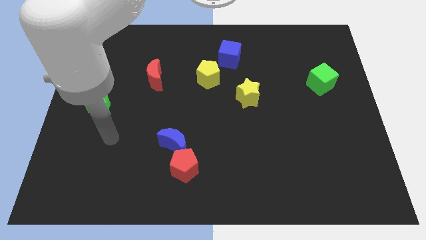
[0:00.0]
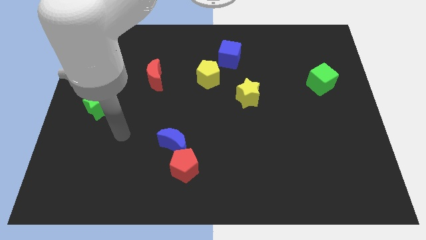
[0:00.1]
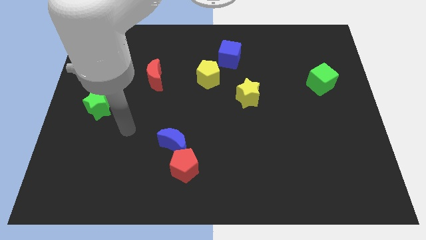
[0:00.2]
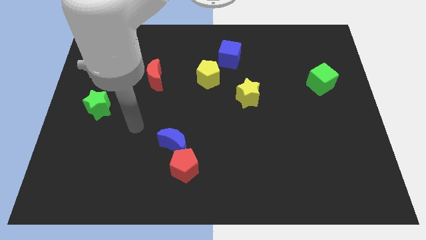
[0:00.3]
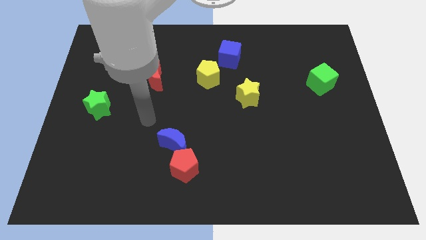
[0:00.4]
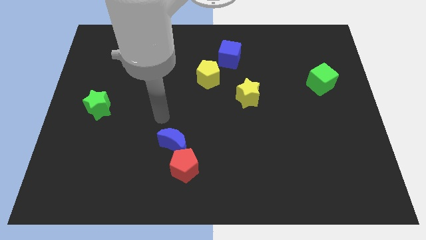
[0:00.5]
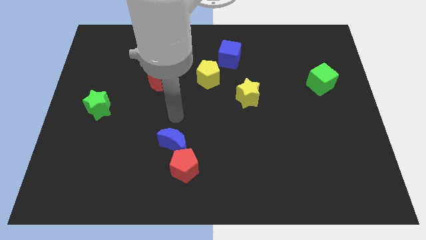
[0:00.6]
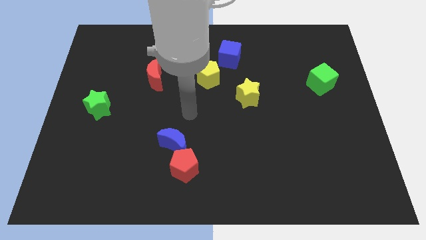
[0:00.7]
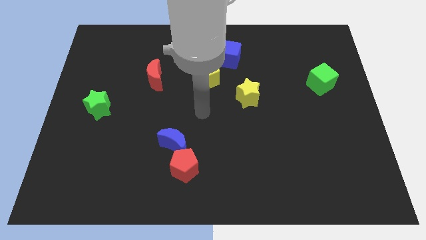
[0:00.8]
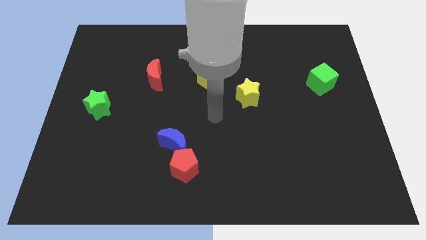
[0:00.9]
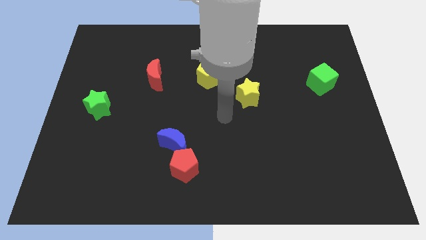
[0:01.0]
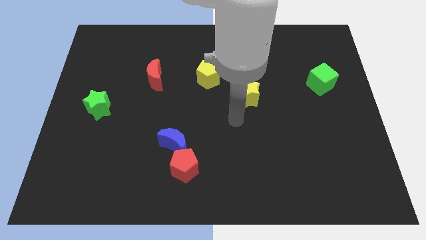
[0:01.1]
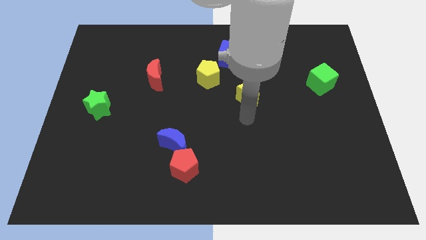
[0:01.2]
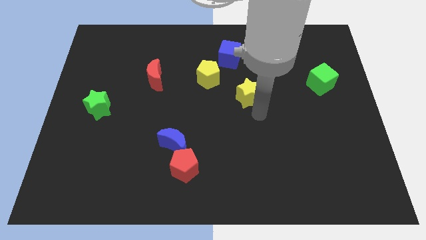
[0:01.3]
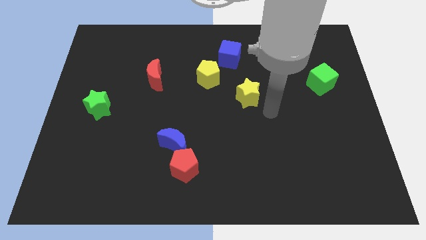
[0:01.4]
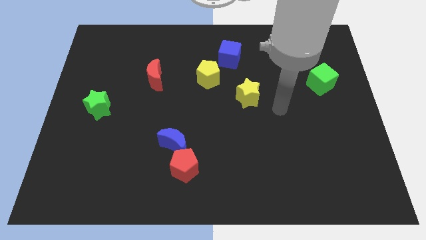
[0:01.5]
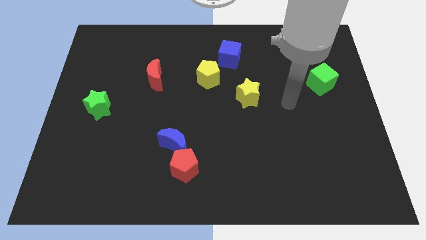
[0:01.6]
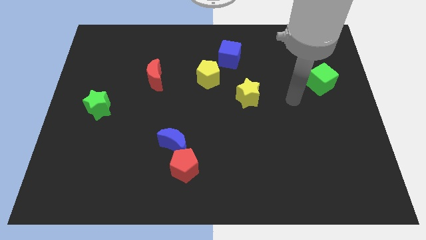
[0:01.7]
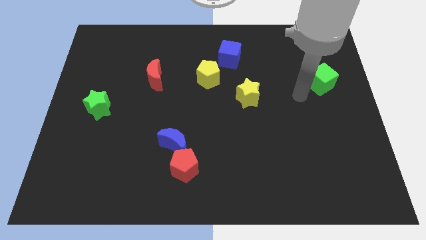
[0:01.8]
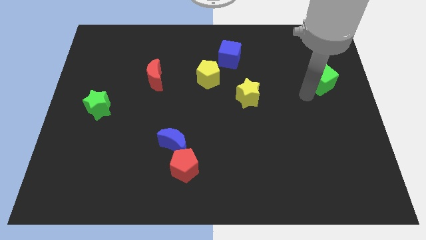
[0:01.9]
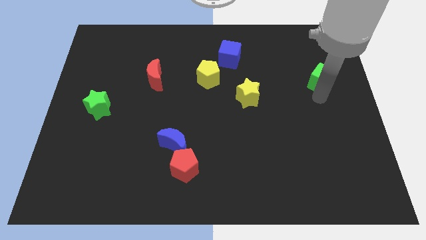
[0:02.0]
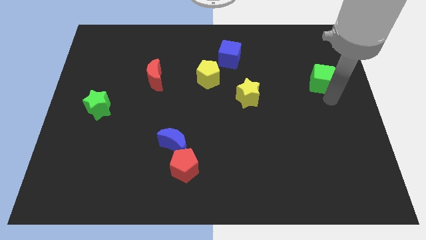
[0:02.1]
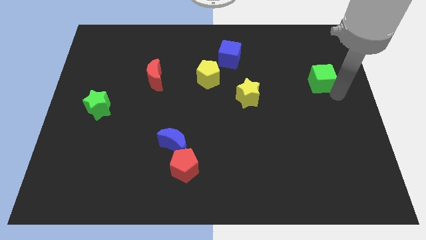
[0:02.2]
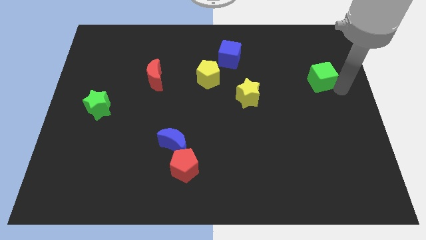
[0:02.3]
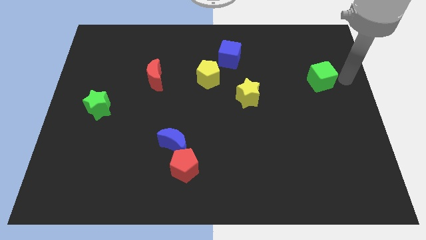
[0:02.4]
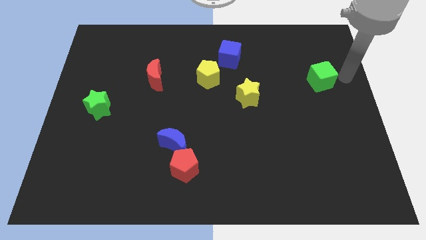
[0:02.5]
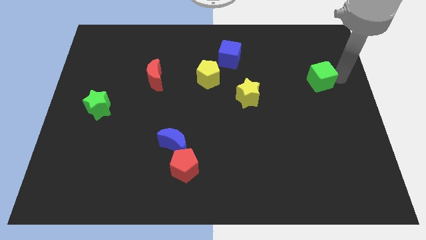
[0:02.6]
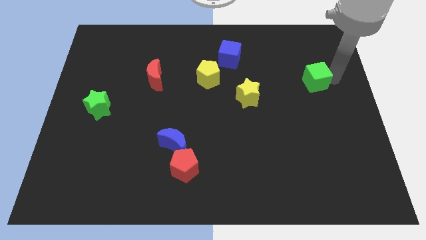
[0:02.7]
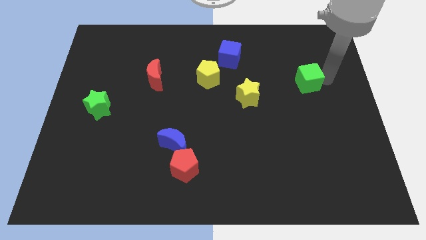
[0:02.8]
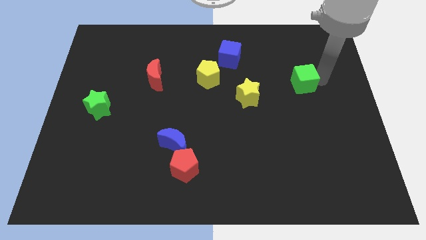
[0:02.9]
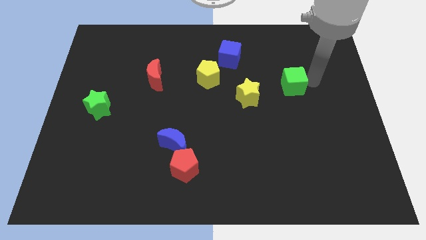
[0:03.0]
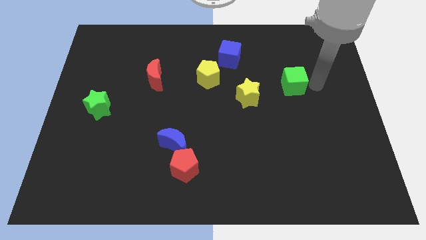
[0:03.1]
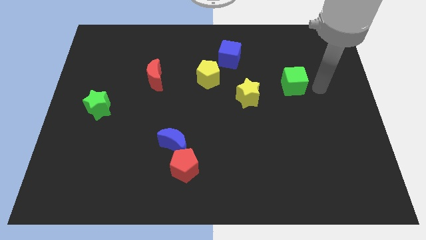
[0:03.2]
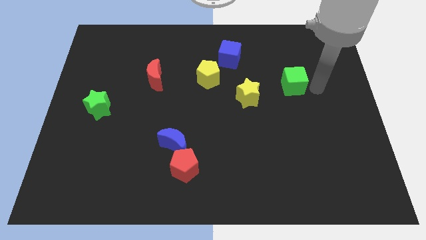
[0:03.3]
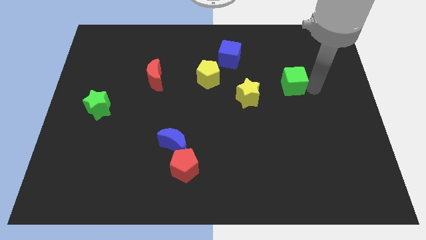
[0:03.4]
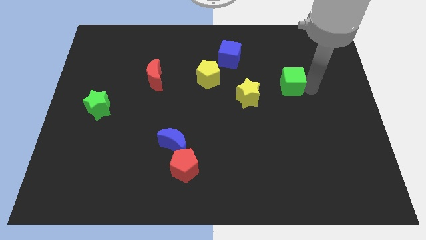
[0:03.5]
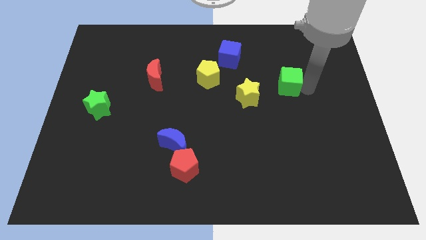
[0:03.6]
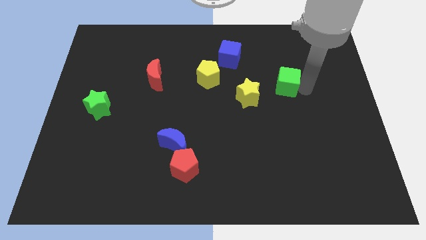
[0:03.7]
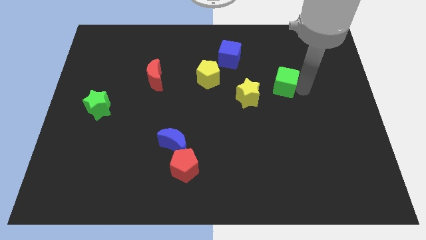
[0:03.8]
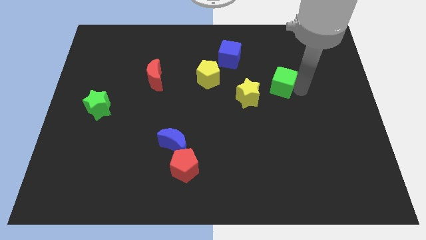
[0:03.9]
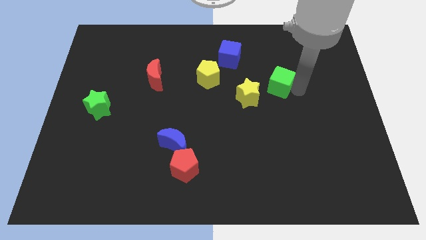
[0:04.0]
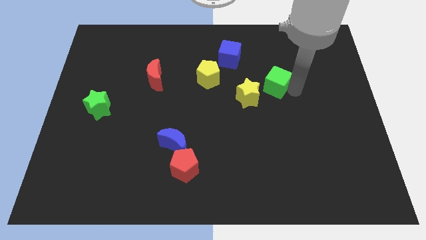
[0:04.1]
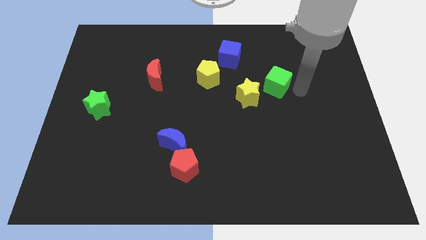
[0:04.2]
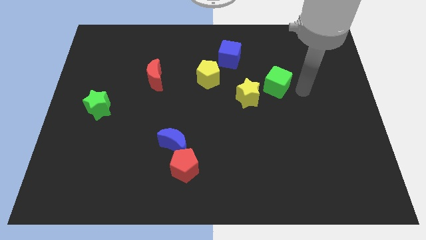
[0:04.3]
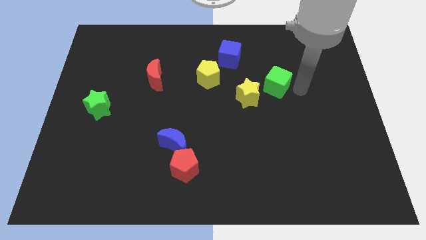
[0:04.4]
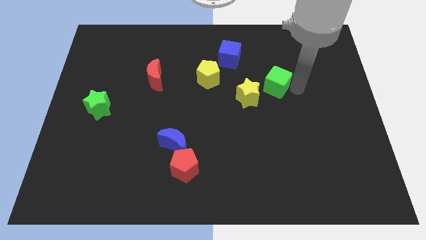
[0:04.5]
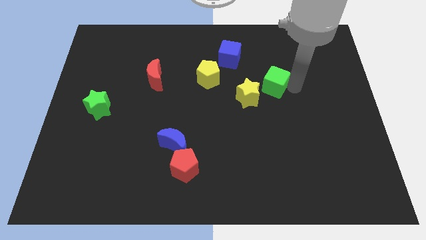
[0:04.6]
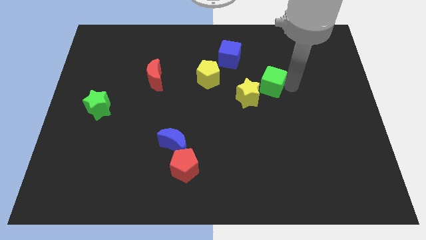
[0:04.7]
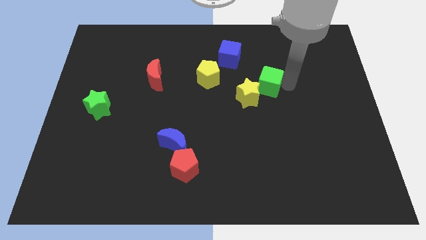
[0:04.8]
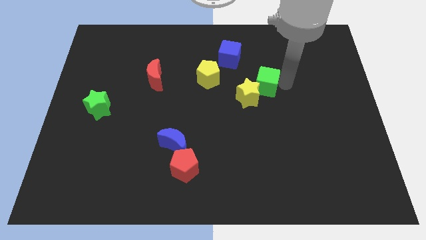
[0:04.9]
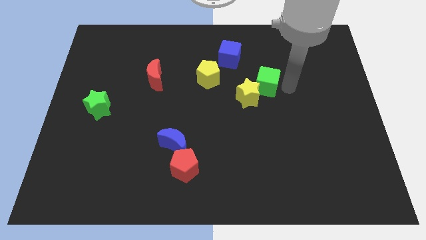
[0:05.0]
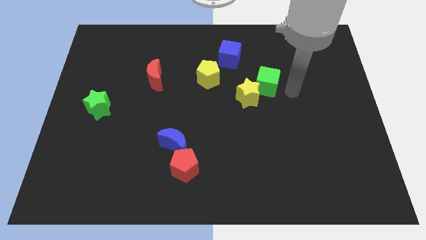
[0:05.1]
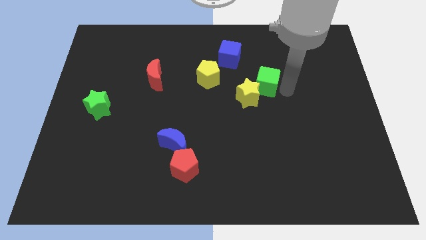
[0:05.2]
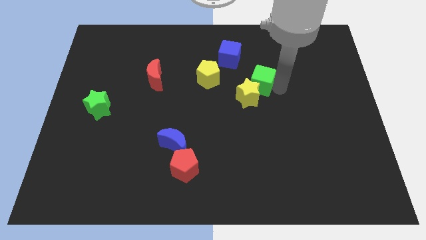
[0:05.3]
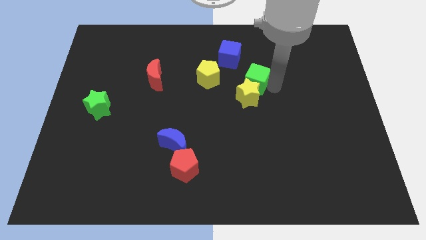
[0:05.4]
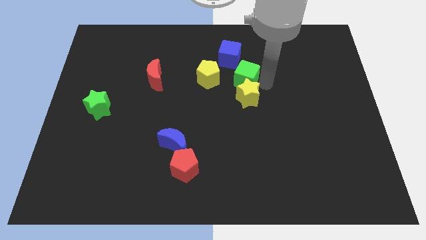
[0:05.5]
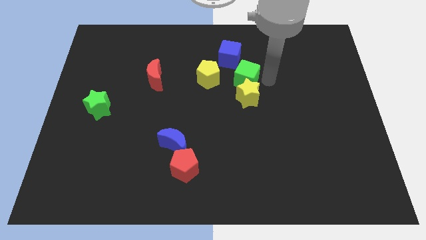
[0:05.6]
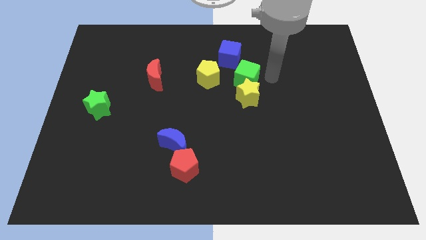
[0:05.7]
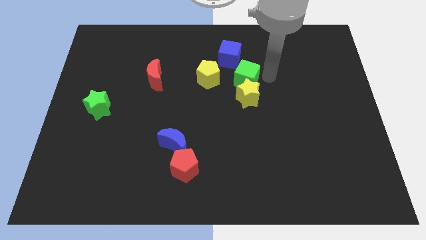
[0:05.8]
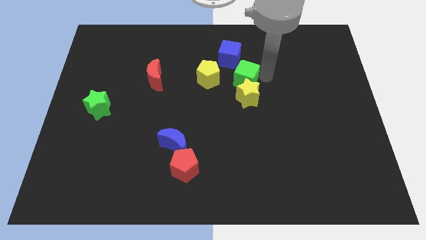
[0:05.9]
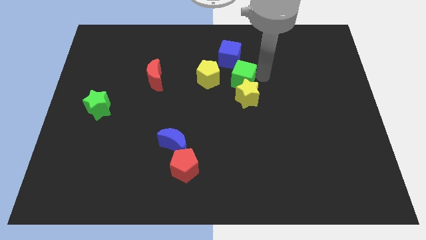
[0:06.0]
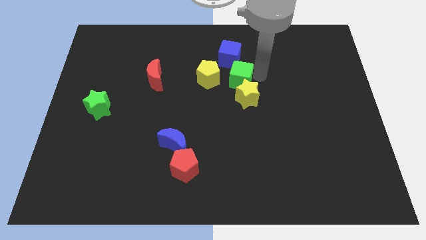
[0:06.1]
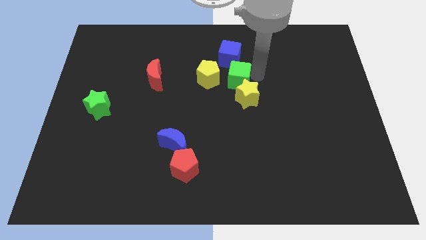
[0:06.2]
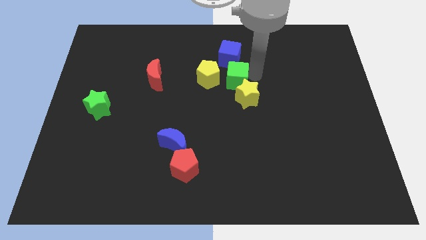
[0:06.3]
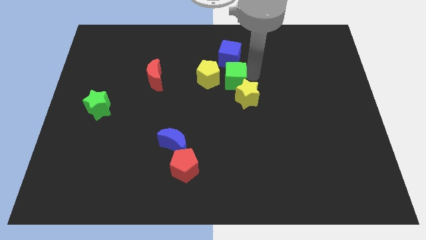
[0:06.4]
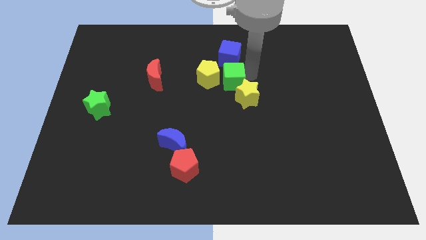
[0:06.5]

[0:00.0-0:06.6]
push the green cube close to the yellow pentagon
